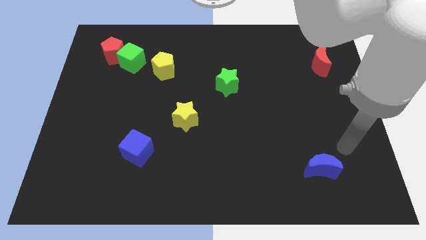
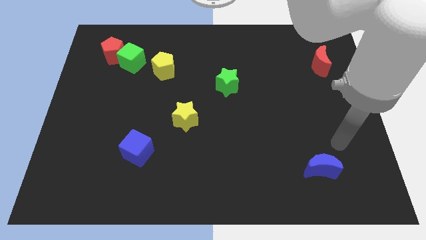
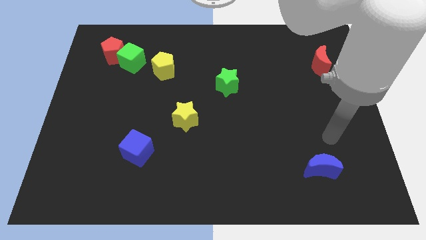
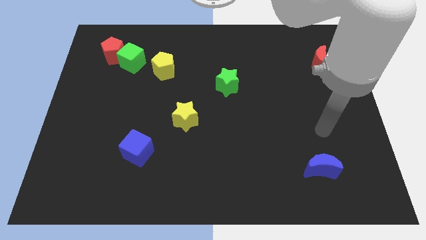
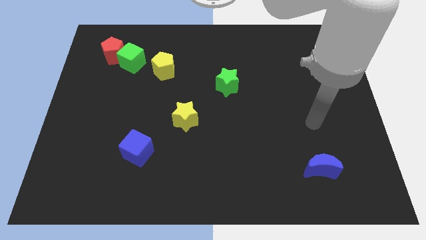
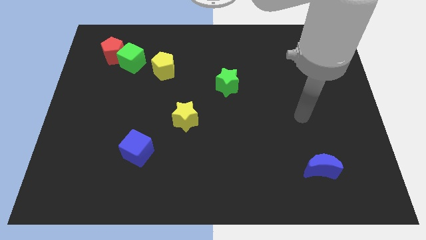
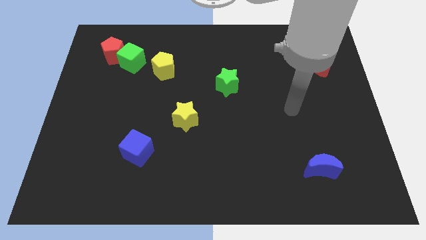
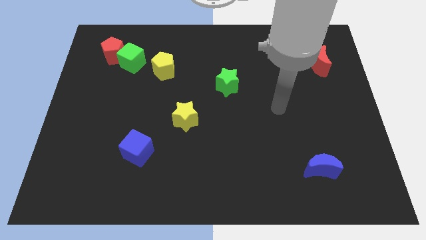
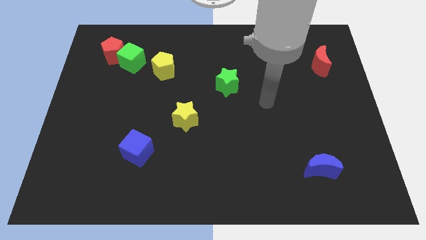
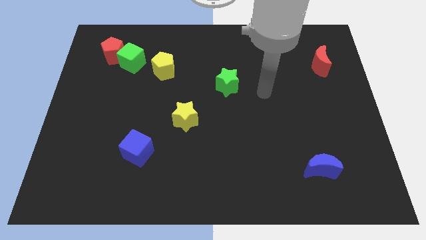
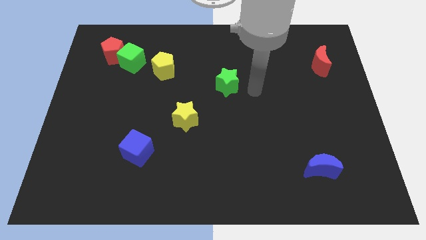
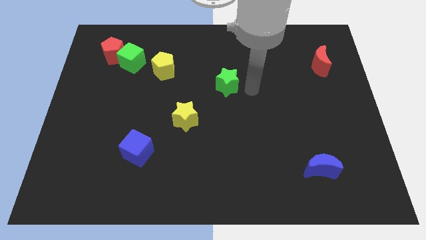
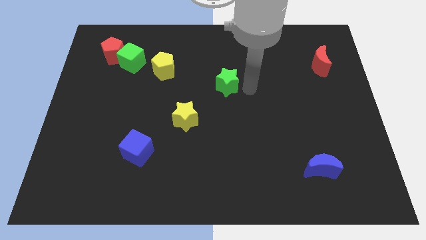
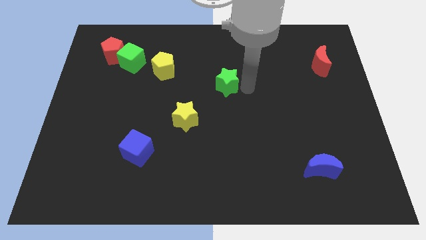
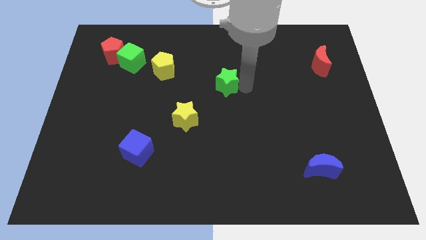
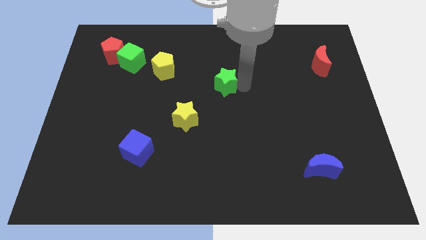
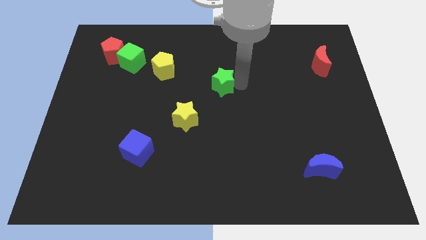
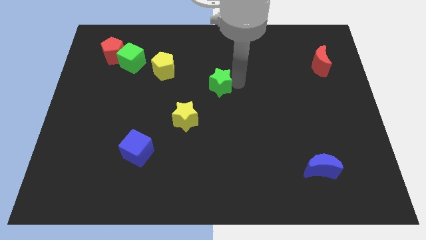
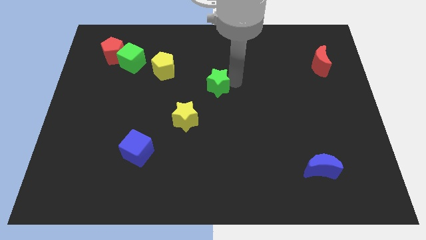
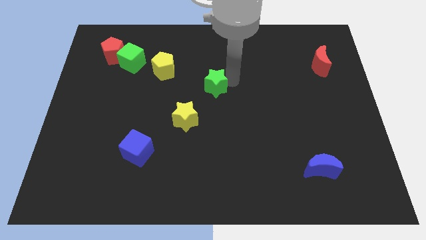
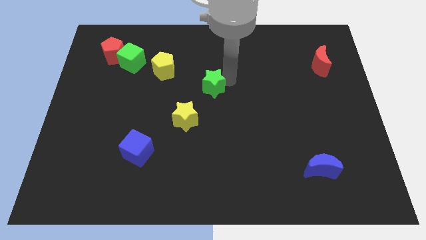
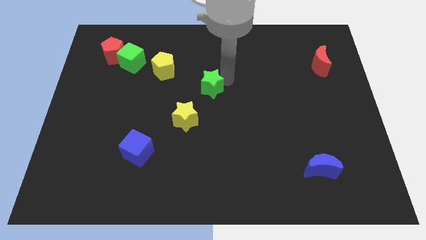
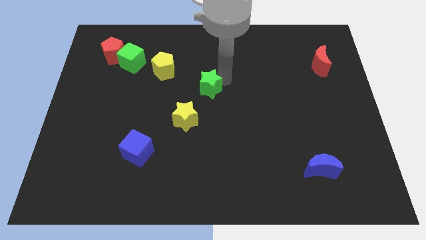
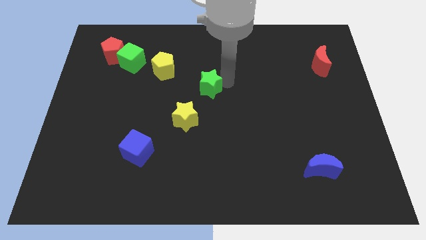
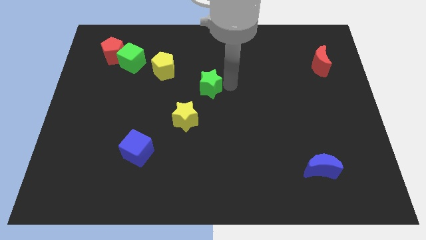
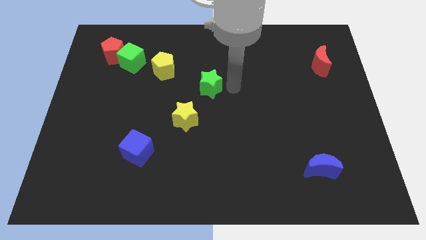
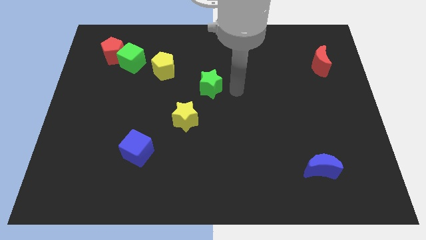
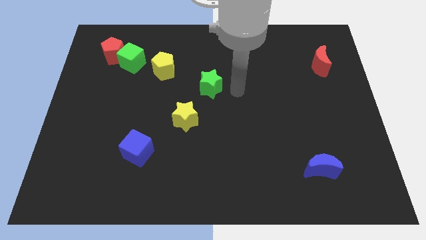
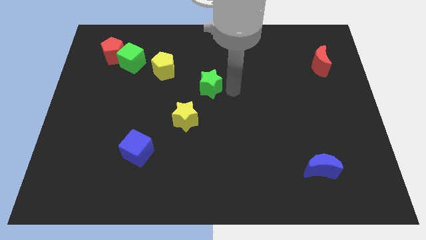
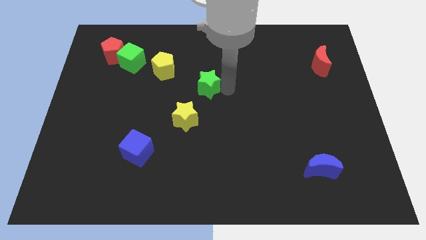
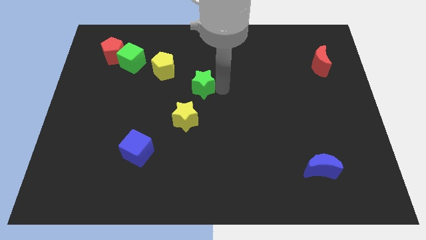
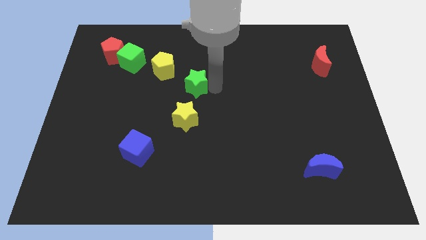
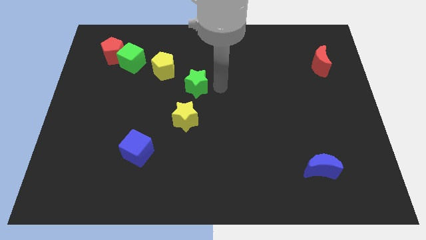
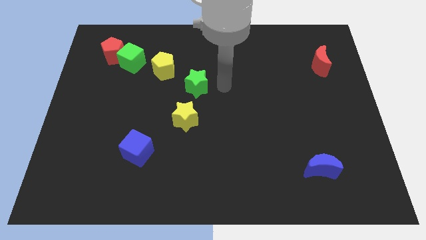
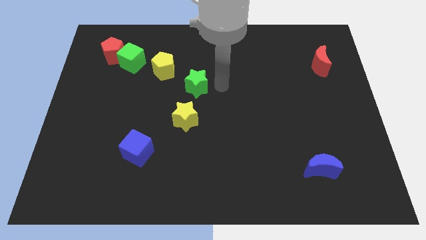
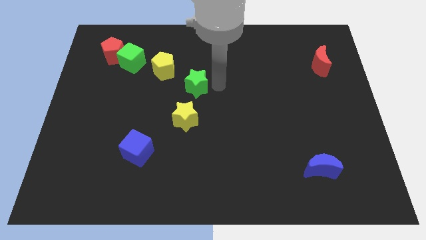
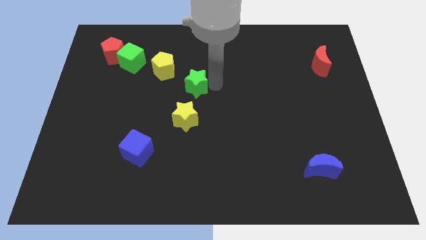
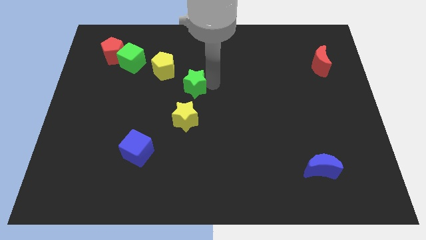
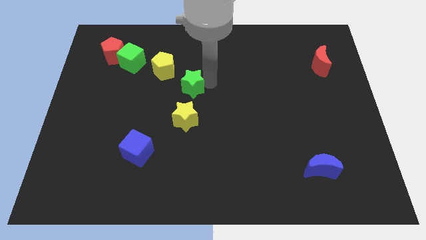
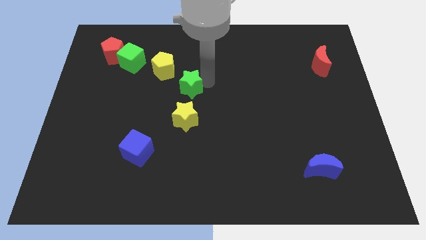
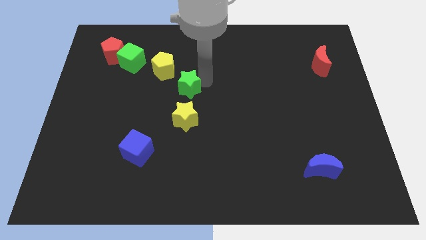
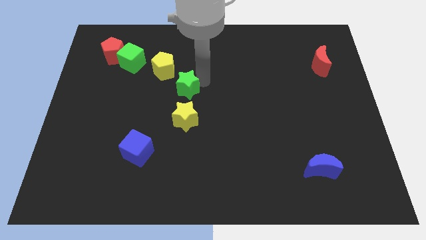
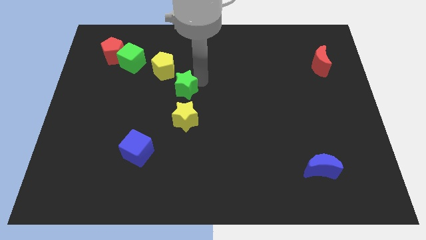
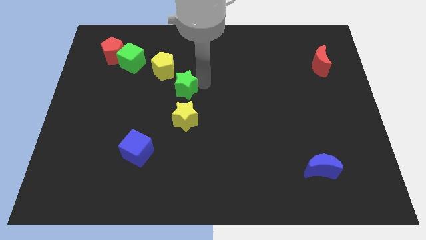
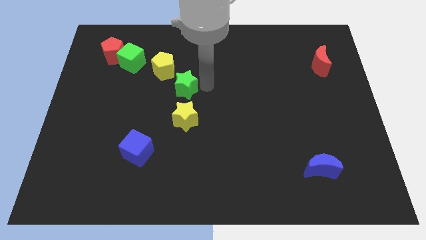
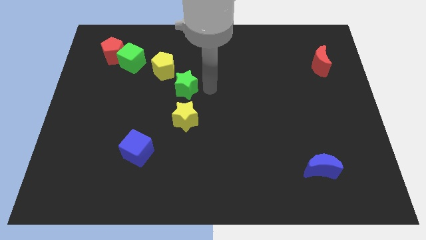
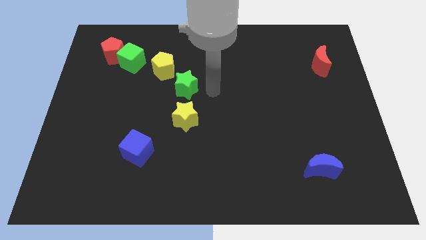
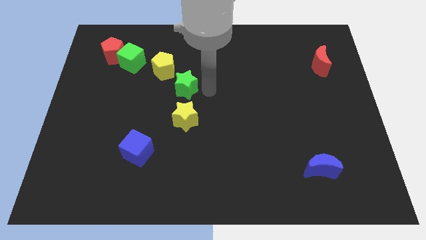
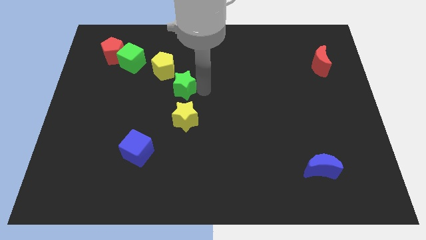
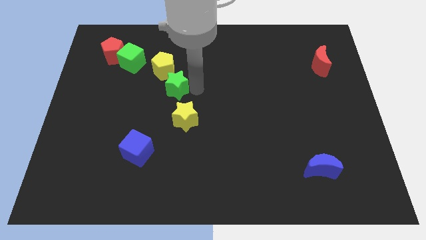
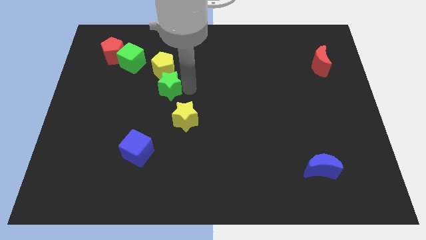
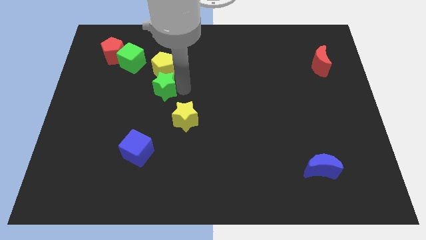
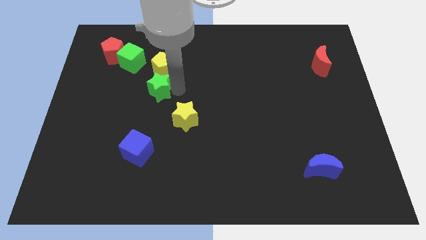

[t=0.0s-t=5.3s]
put the green star diagonally down and to the left of the yellow pentagon

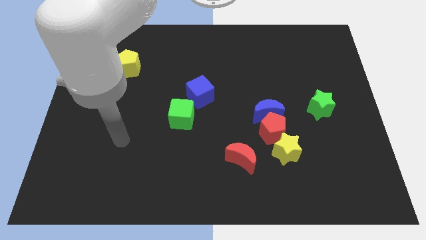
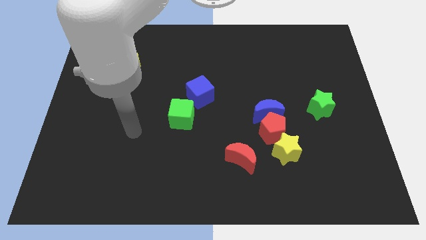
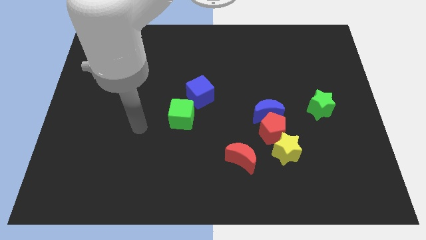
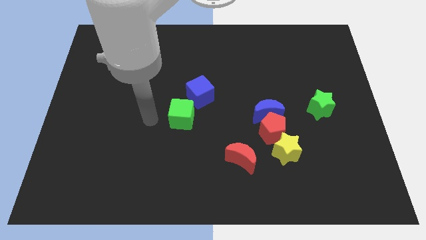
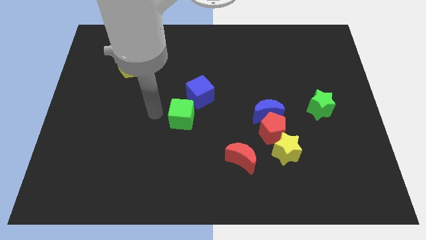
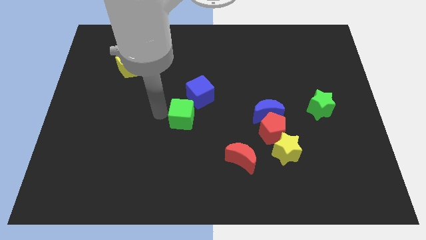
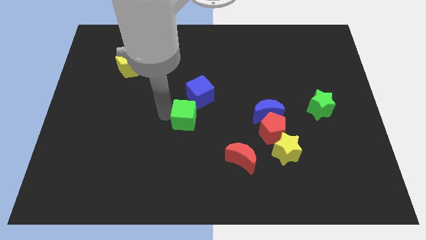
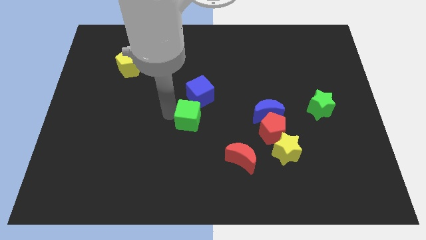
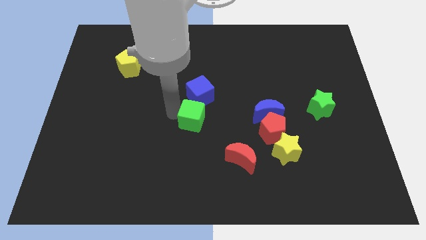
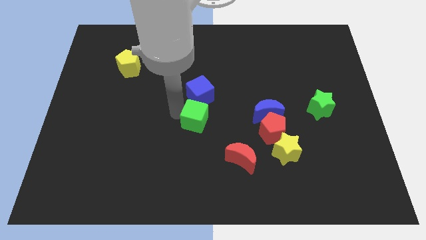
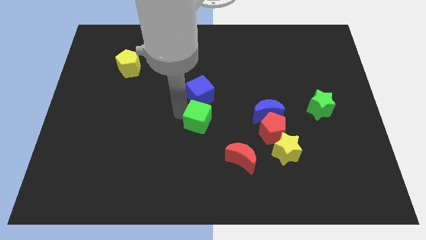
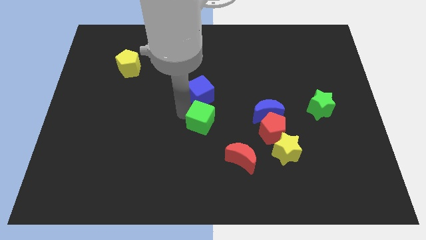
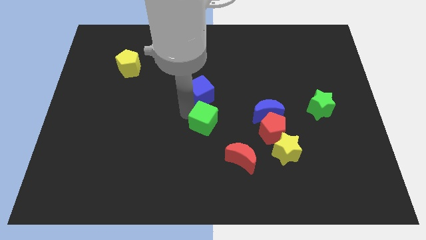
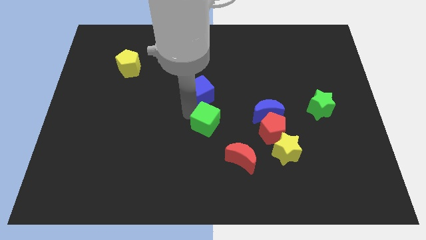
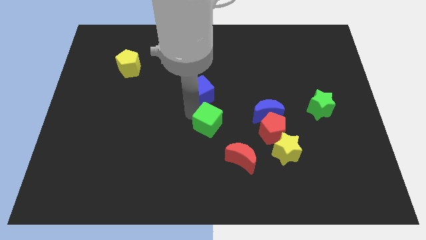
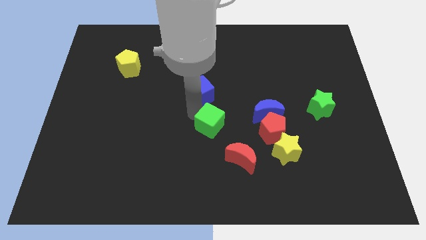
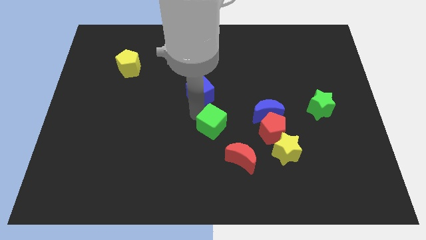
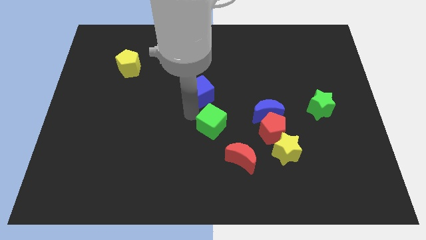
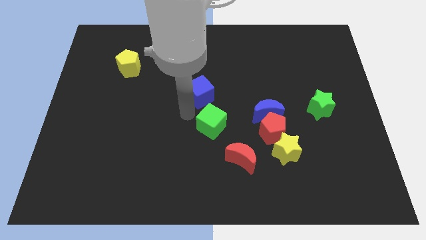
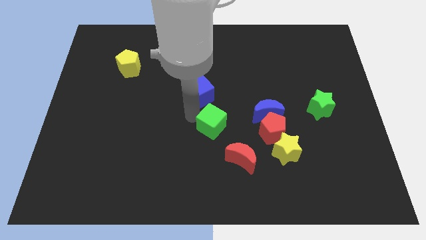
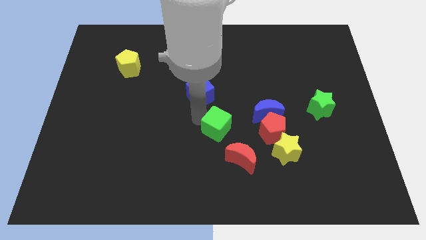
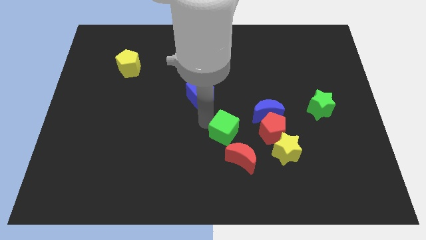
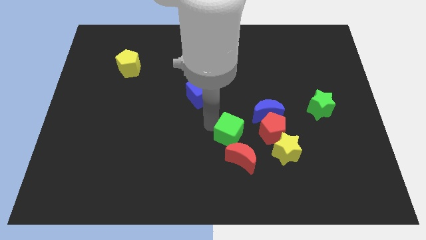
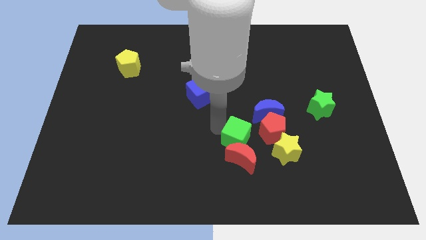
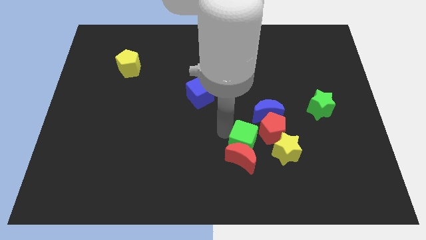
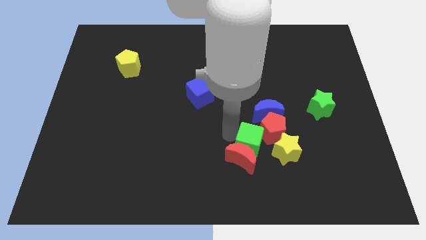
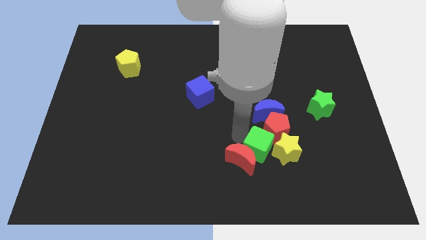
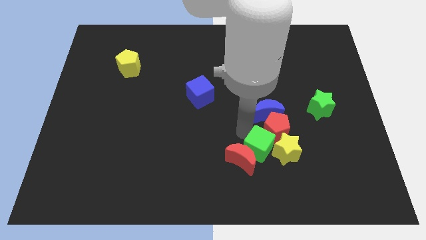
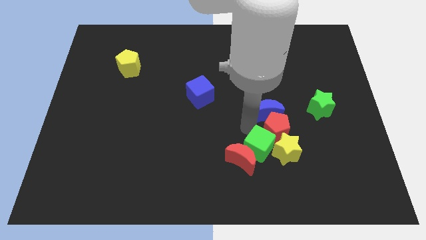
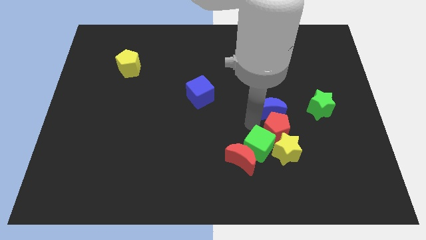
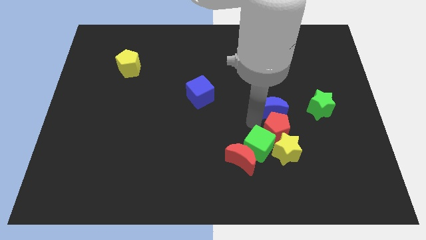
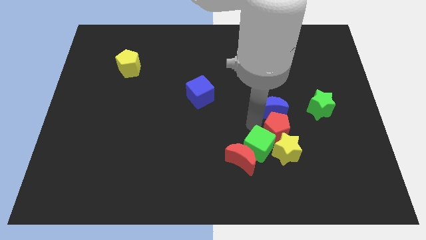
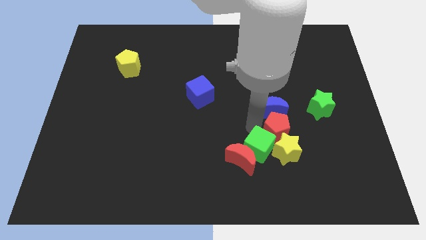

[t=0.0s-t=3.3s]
push the green cube to the bottom left side of the yellow star
